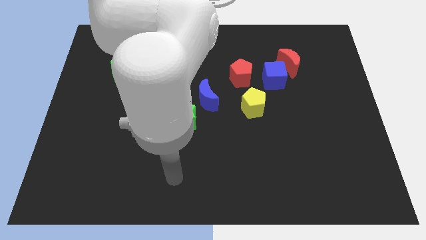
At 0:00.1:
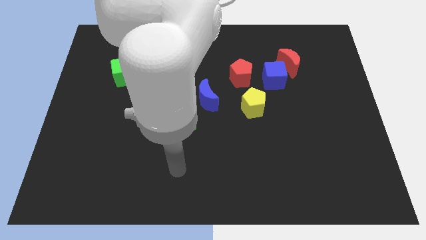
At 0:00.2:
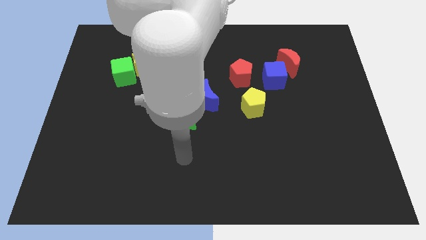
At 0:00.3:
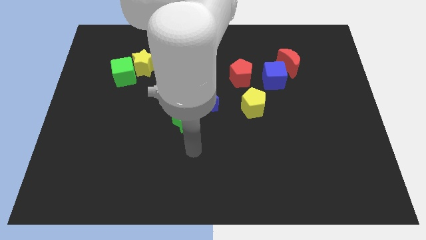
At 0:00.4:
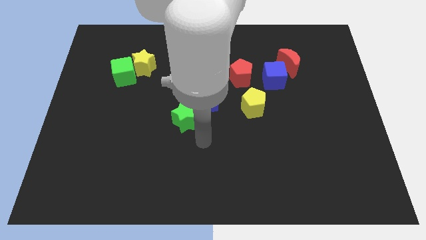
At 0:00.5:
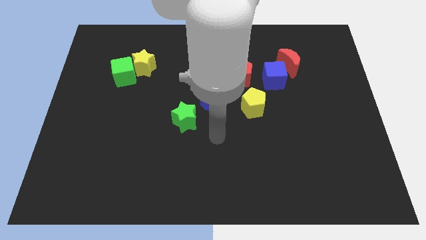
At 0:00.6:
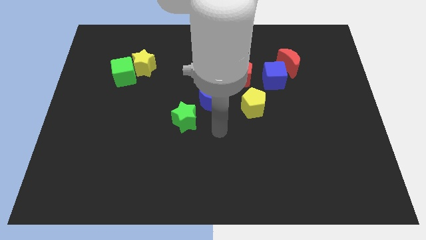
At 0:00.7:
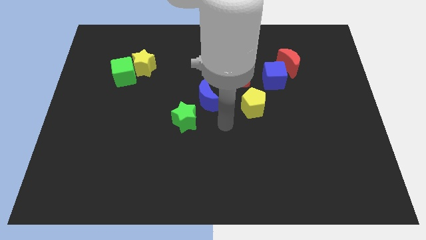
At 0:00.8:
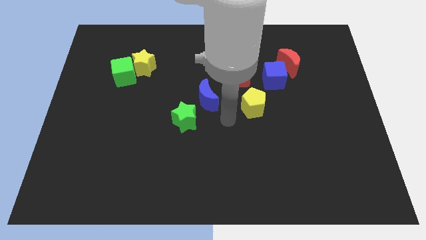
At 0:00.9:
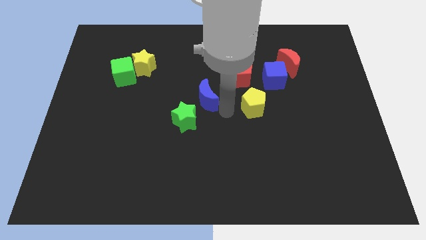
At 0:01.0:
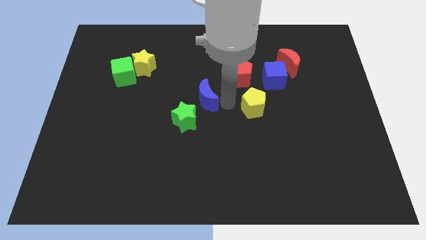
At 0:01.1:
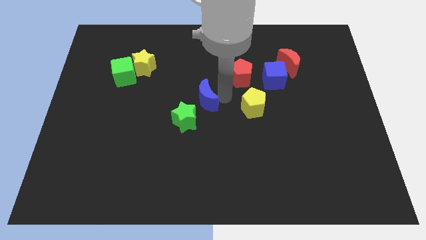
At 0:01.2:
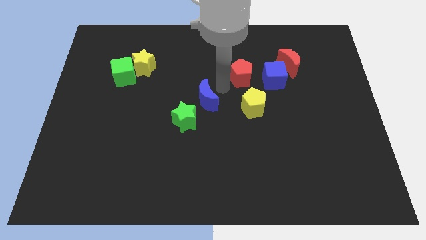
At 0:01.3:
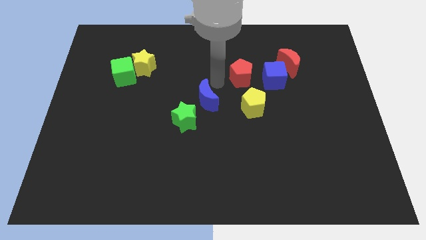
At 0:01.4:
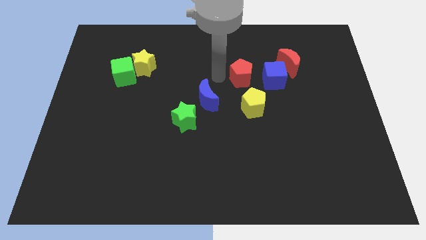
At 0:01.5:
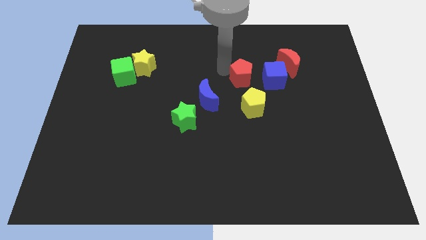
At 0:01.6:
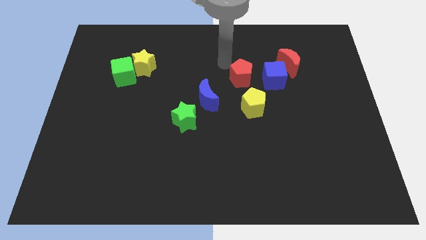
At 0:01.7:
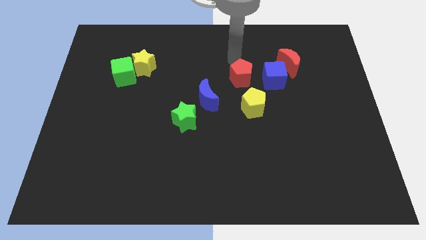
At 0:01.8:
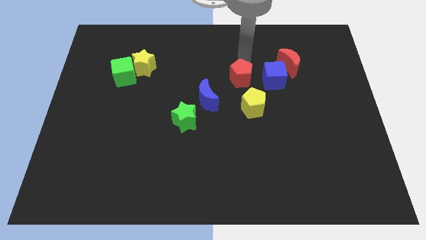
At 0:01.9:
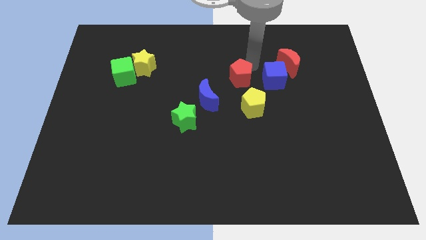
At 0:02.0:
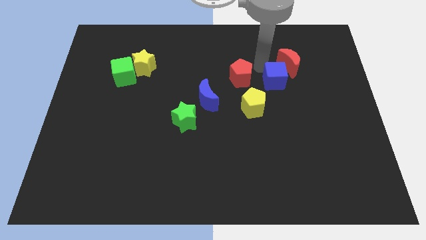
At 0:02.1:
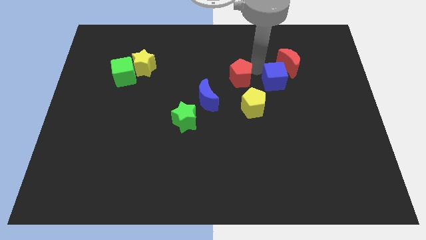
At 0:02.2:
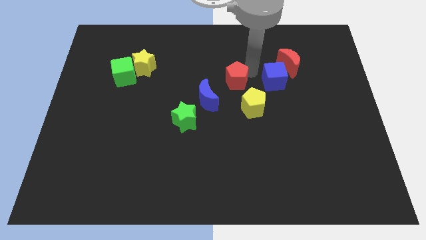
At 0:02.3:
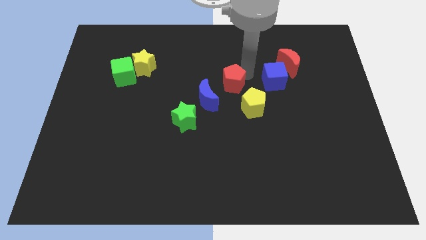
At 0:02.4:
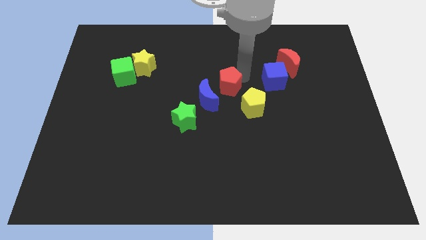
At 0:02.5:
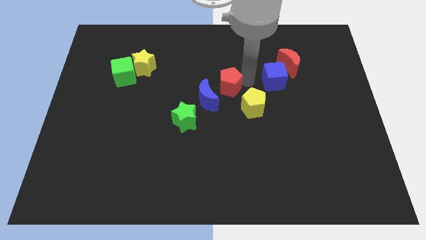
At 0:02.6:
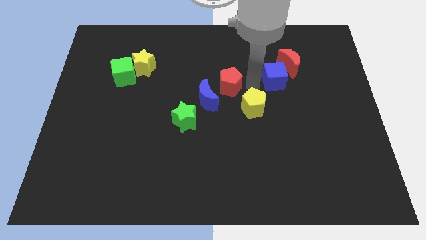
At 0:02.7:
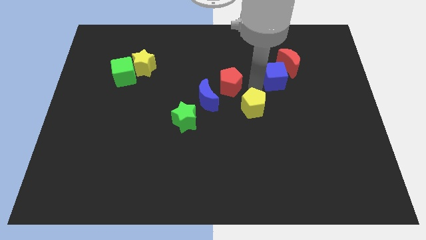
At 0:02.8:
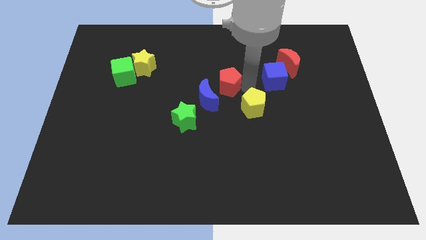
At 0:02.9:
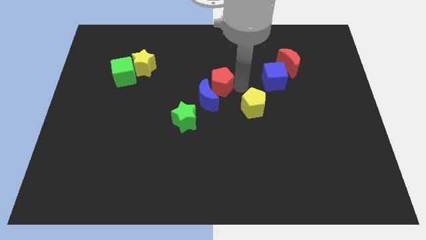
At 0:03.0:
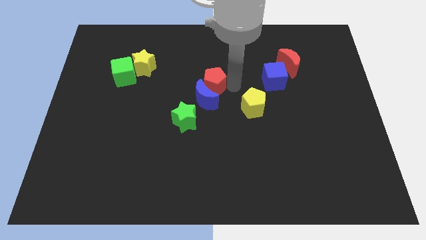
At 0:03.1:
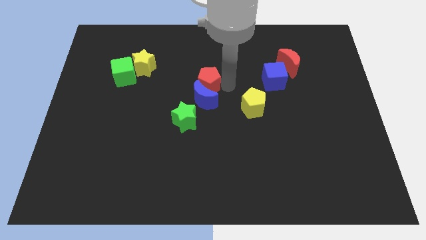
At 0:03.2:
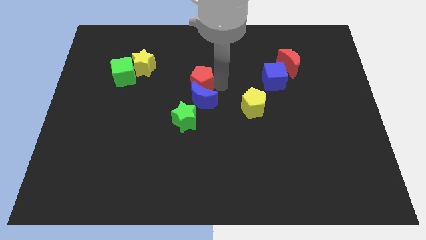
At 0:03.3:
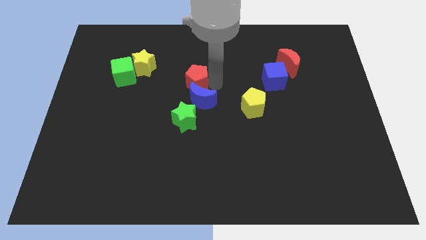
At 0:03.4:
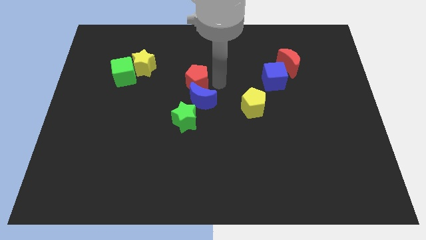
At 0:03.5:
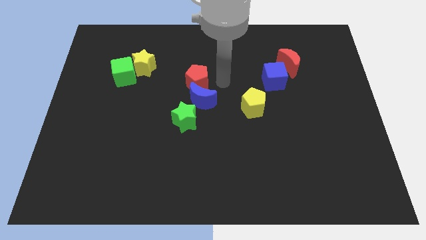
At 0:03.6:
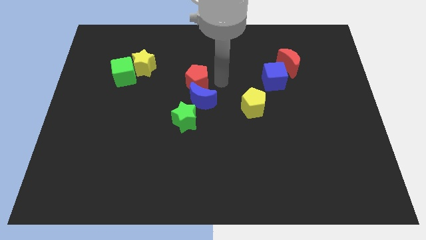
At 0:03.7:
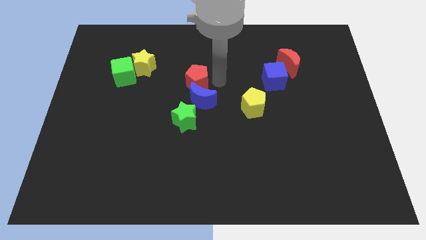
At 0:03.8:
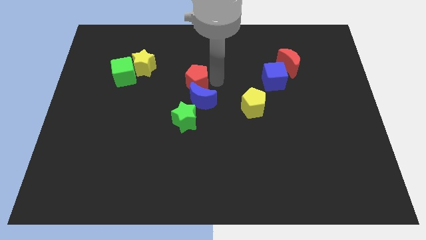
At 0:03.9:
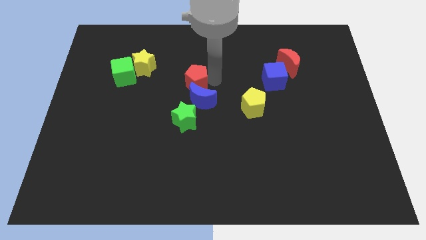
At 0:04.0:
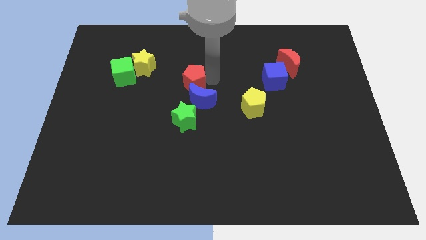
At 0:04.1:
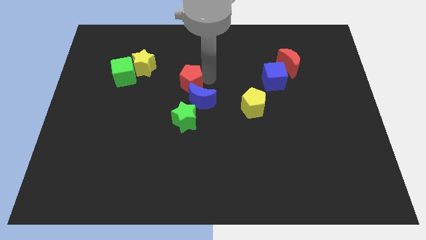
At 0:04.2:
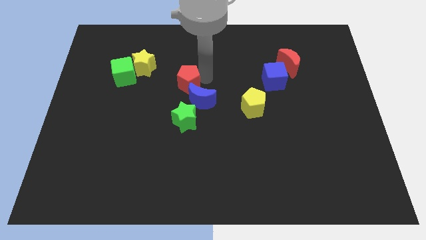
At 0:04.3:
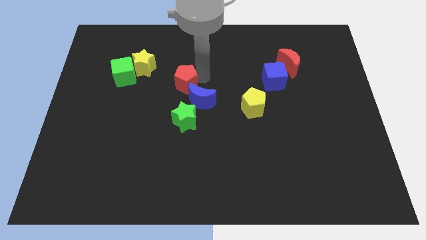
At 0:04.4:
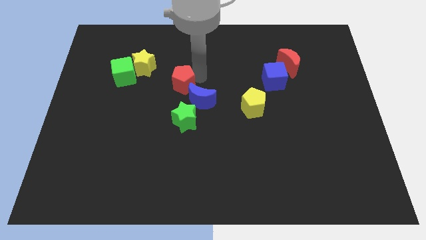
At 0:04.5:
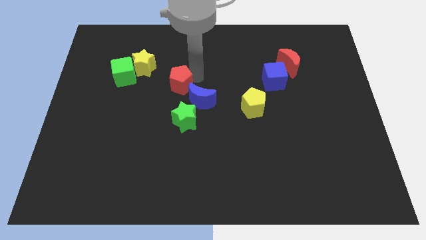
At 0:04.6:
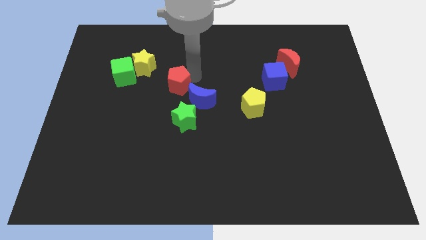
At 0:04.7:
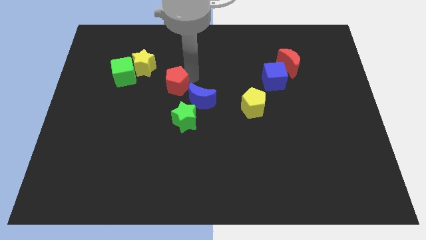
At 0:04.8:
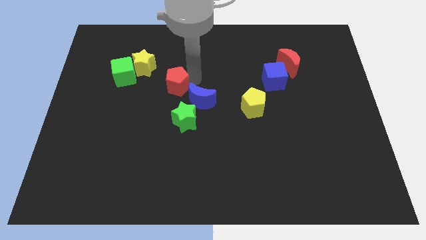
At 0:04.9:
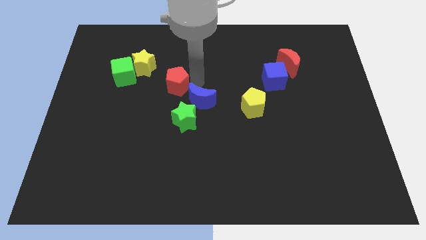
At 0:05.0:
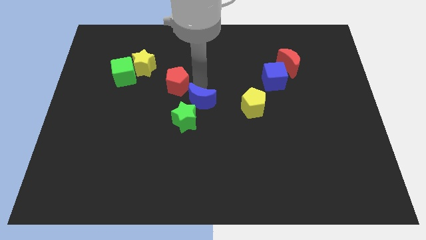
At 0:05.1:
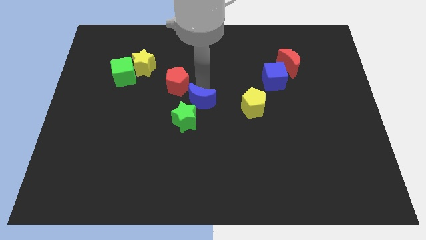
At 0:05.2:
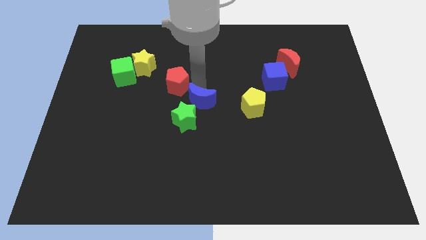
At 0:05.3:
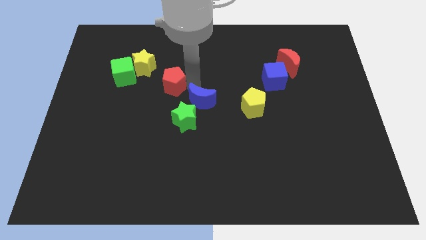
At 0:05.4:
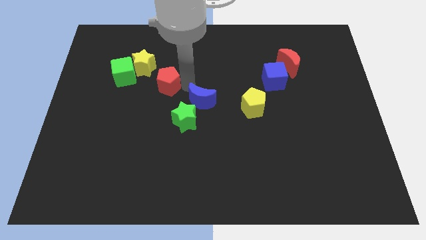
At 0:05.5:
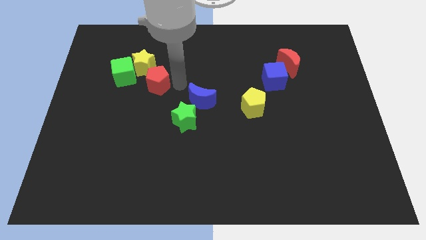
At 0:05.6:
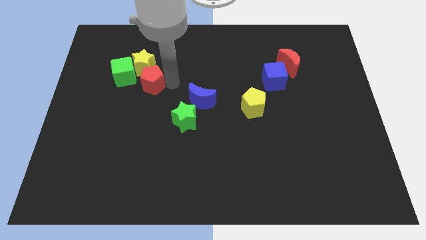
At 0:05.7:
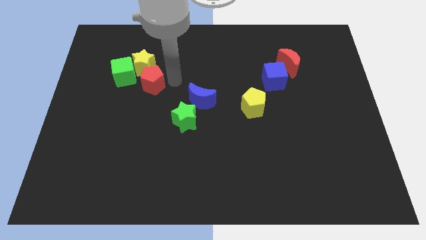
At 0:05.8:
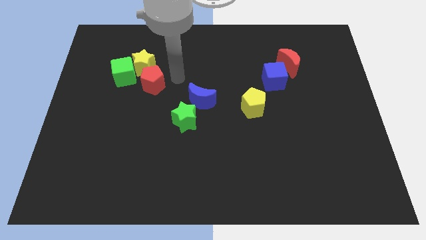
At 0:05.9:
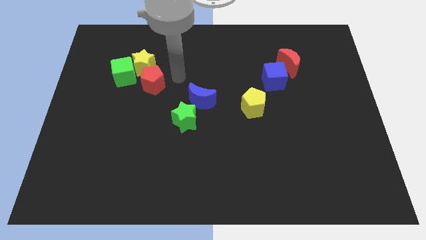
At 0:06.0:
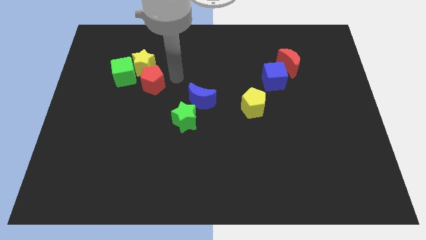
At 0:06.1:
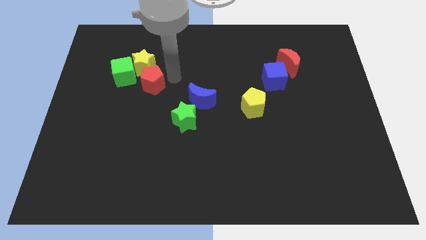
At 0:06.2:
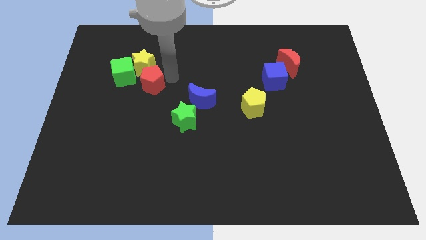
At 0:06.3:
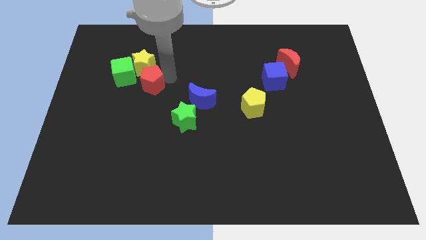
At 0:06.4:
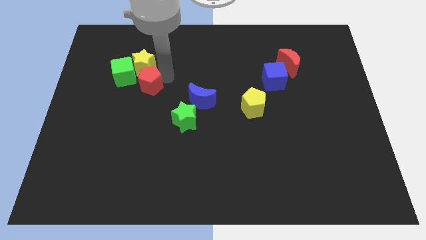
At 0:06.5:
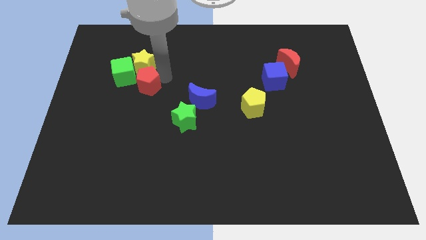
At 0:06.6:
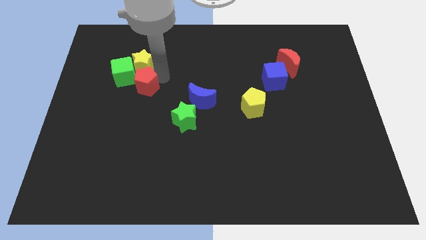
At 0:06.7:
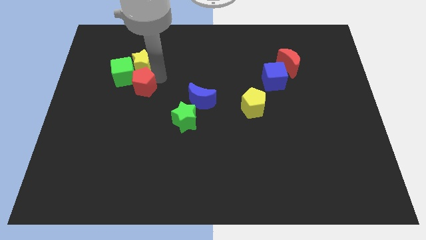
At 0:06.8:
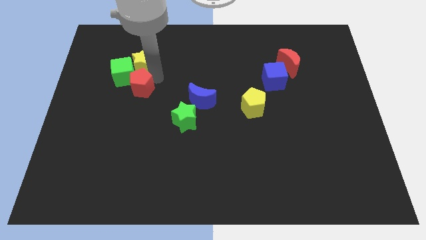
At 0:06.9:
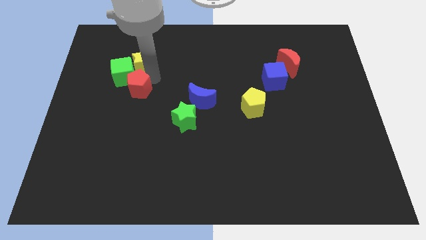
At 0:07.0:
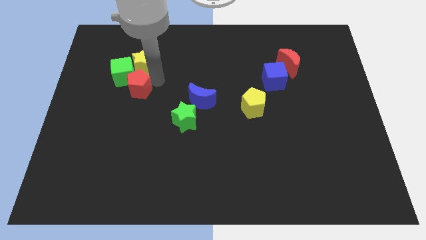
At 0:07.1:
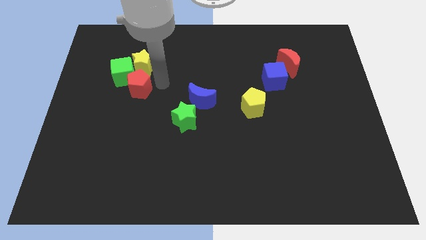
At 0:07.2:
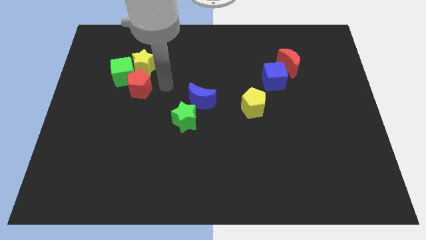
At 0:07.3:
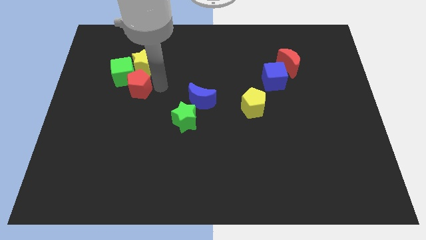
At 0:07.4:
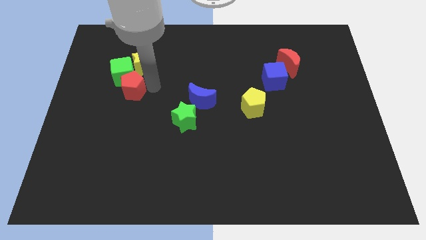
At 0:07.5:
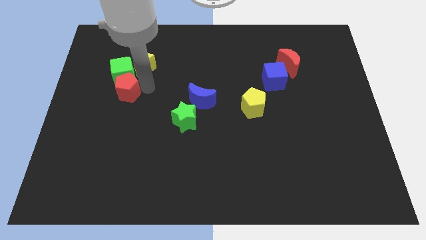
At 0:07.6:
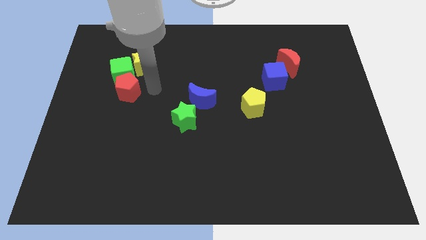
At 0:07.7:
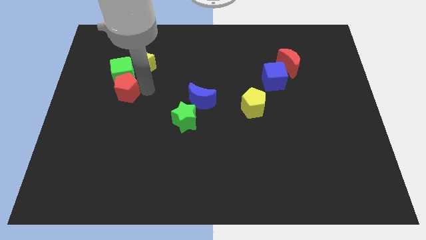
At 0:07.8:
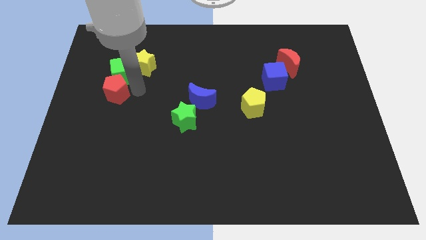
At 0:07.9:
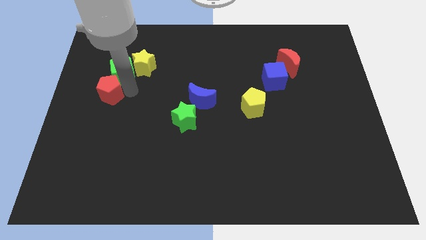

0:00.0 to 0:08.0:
put the red pentagon to the left side
